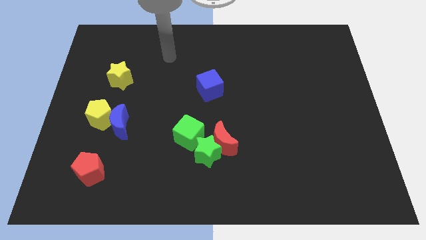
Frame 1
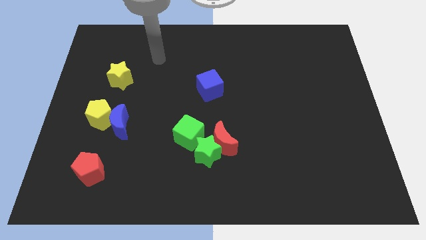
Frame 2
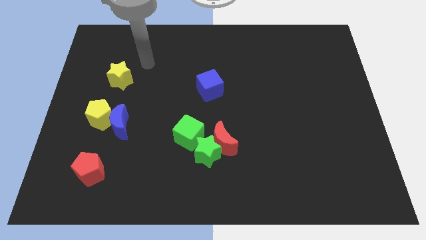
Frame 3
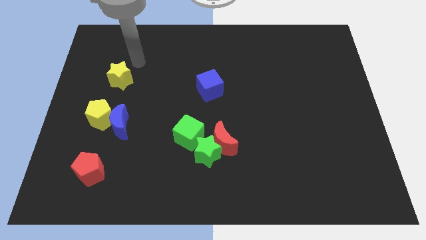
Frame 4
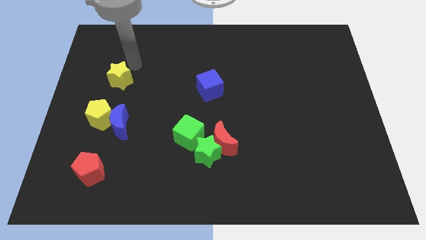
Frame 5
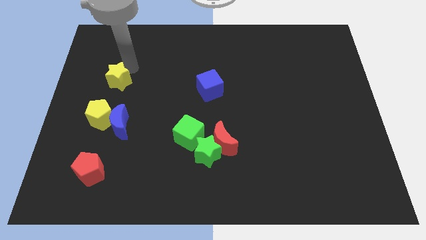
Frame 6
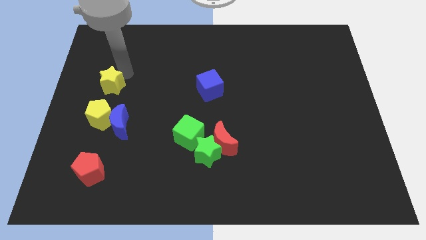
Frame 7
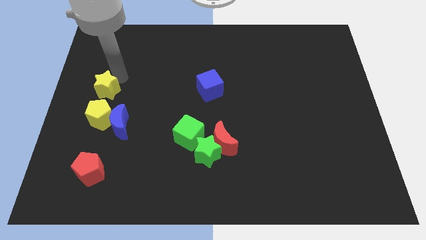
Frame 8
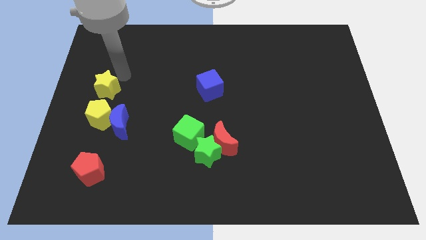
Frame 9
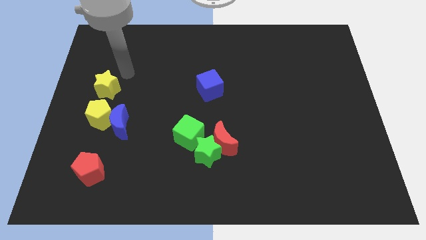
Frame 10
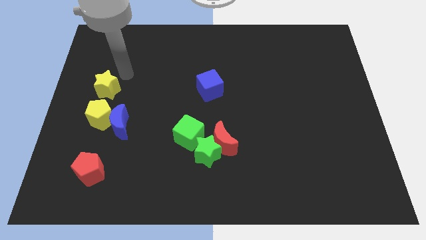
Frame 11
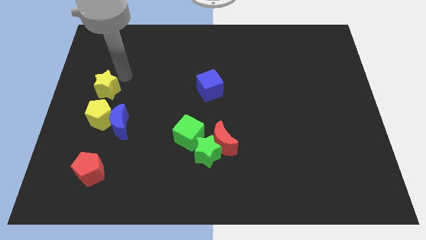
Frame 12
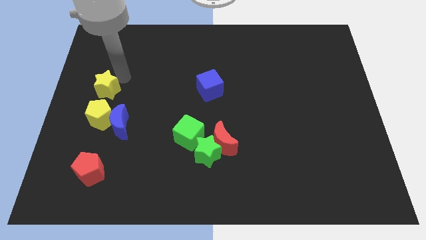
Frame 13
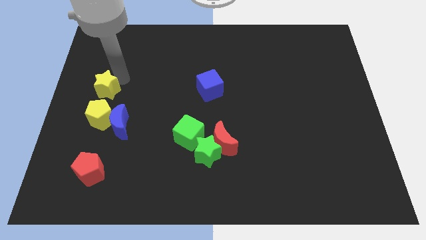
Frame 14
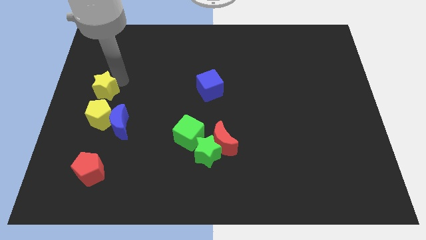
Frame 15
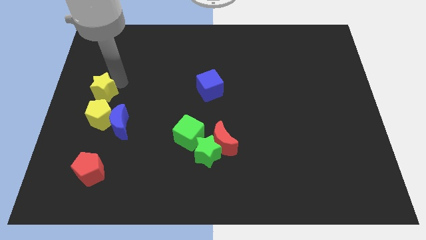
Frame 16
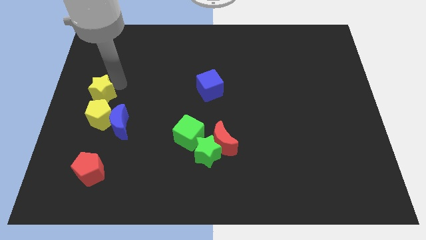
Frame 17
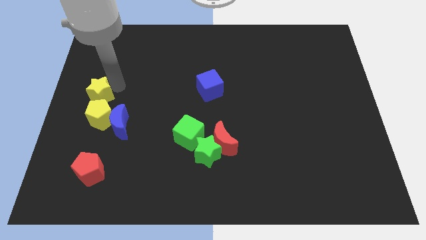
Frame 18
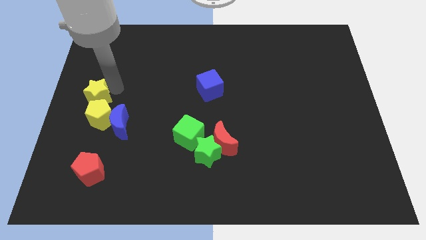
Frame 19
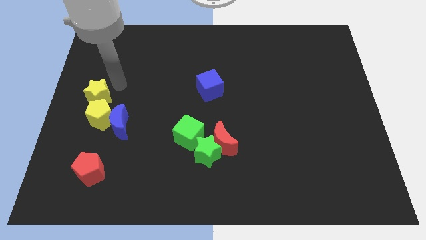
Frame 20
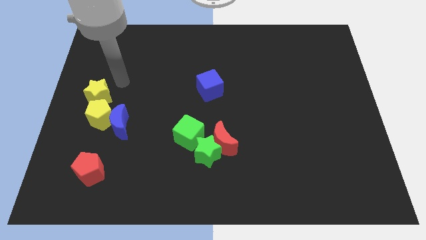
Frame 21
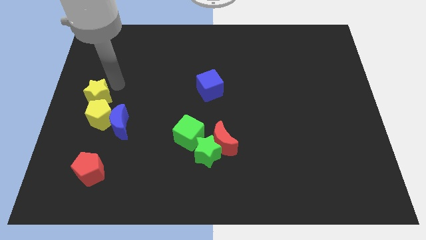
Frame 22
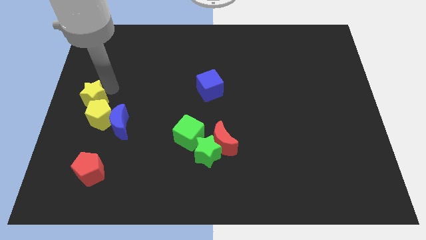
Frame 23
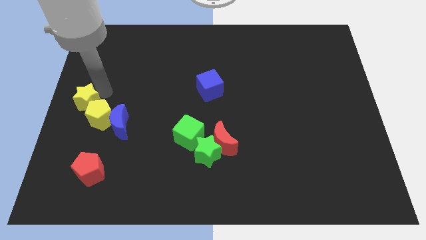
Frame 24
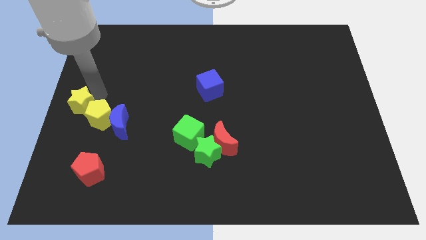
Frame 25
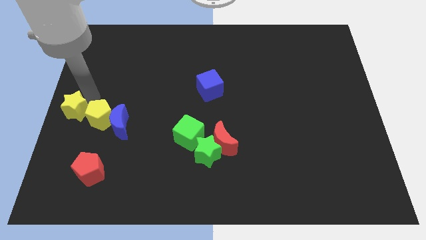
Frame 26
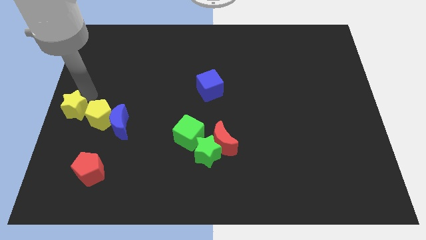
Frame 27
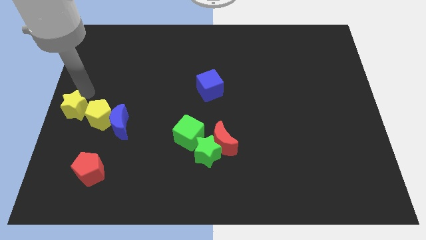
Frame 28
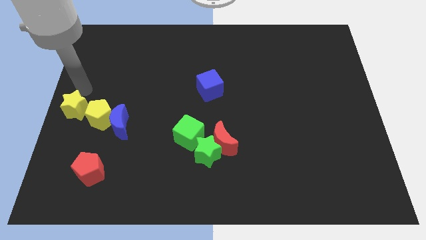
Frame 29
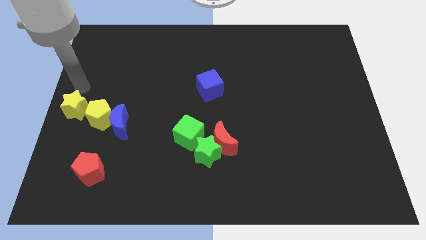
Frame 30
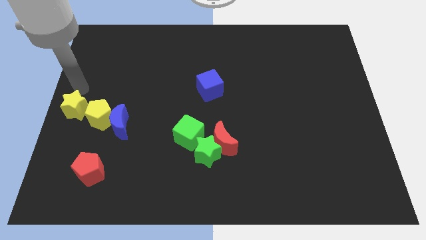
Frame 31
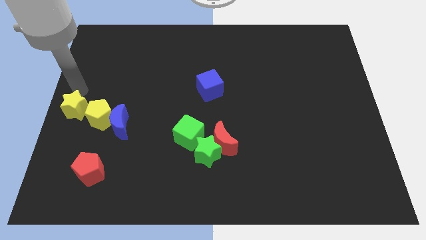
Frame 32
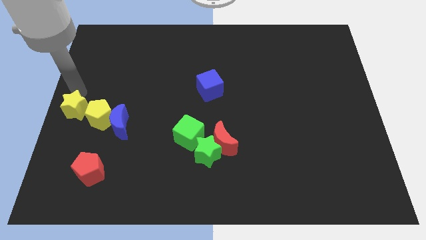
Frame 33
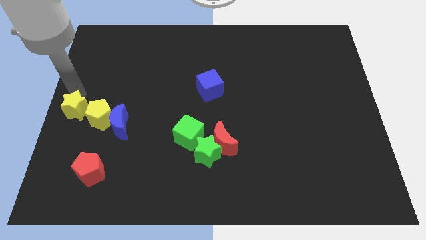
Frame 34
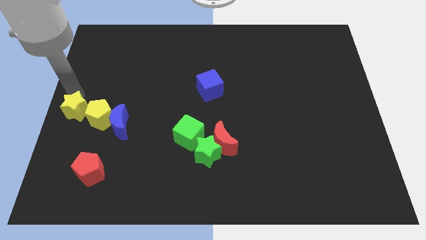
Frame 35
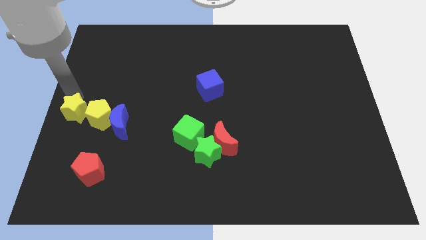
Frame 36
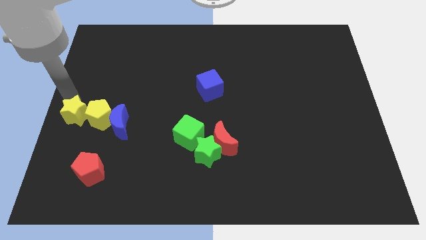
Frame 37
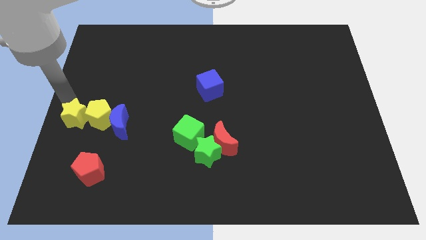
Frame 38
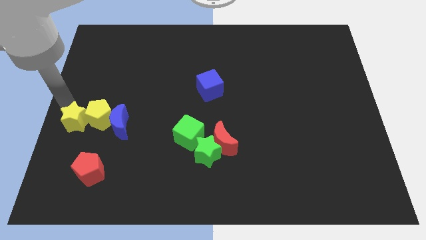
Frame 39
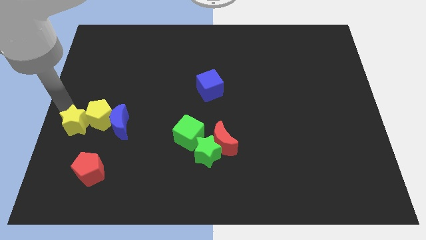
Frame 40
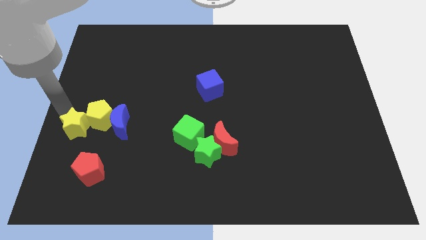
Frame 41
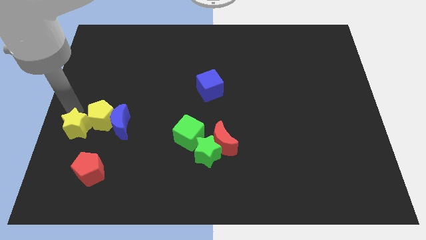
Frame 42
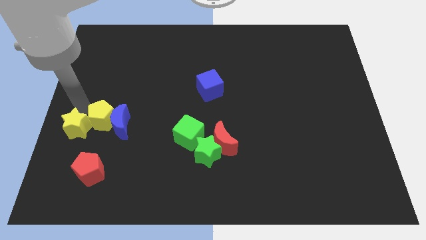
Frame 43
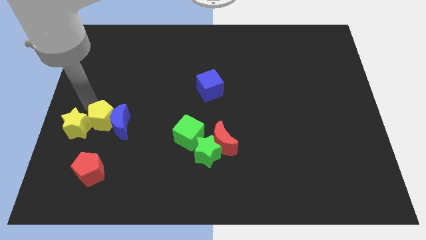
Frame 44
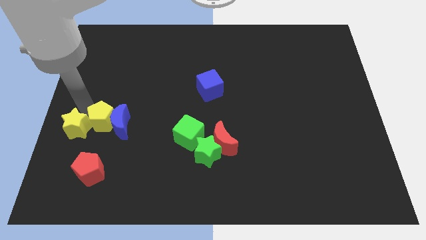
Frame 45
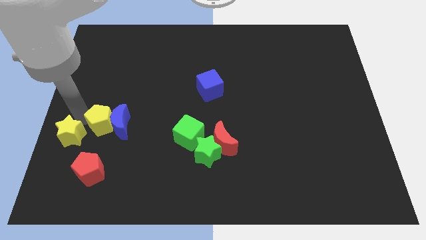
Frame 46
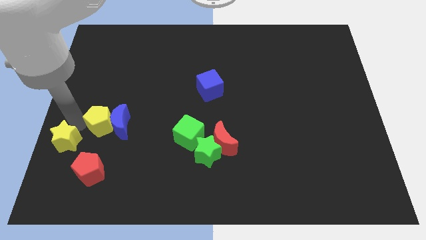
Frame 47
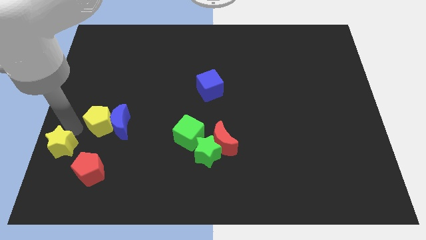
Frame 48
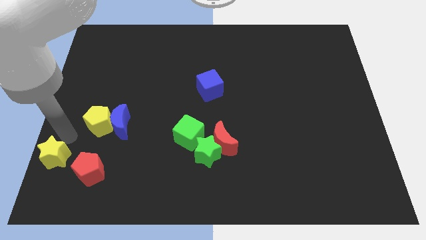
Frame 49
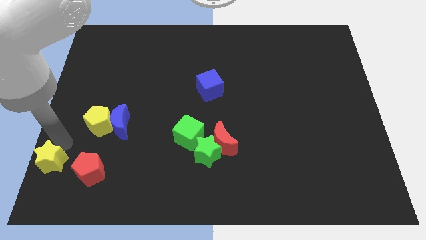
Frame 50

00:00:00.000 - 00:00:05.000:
move the yellow star to the bottom left of the board

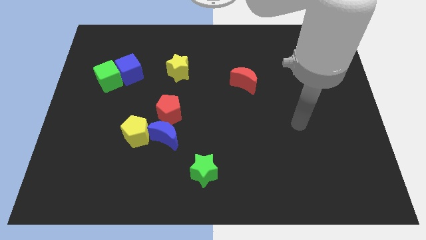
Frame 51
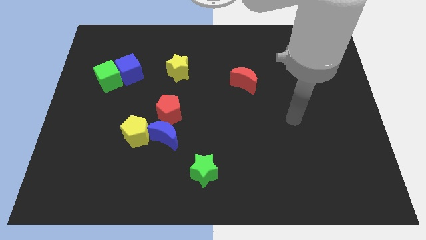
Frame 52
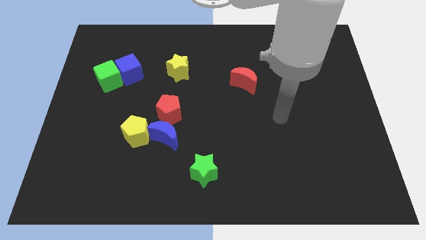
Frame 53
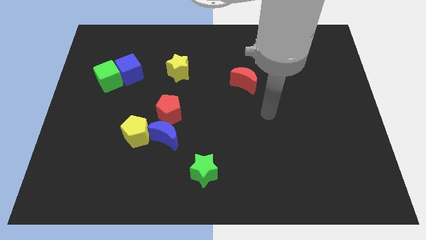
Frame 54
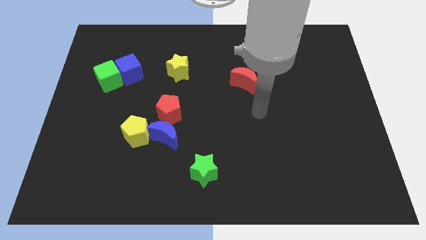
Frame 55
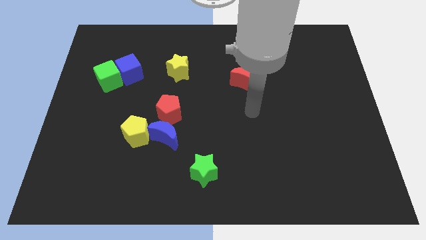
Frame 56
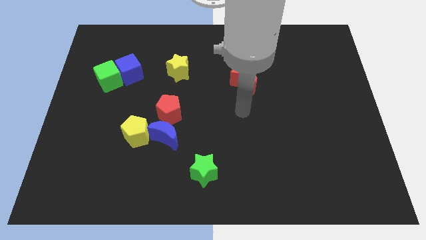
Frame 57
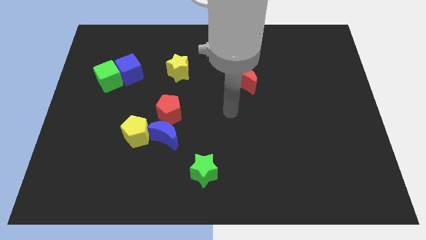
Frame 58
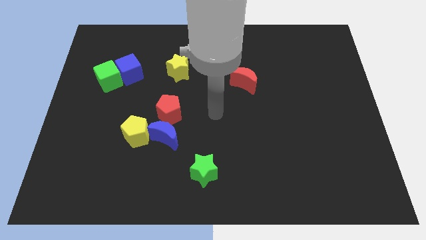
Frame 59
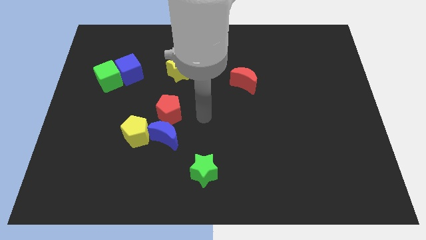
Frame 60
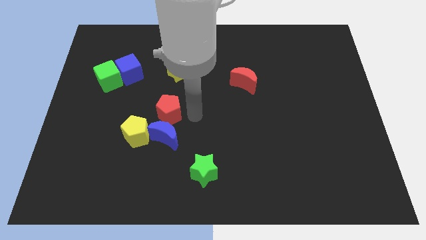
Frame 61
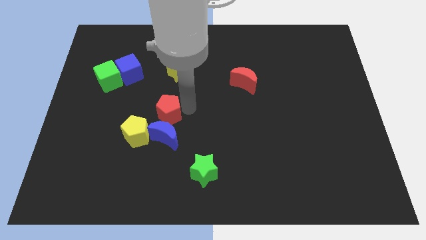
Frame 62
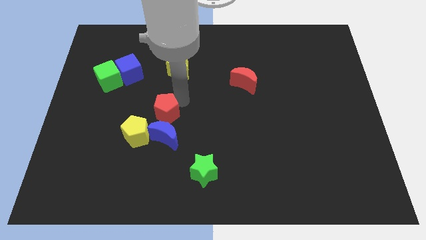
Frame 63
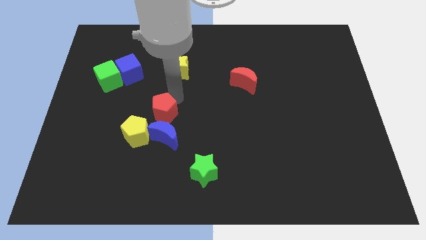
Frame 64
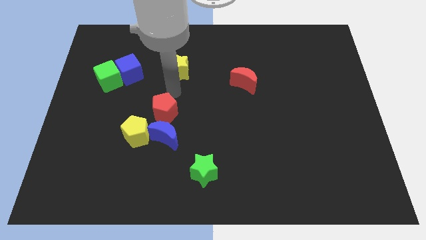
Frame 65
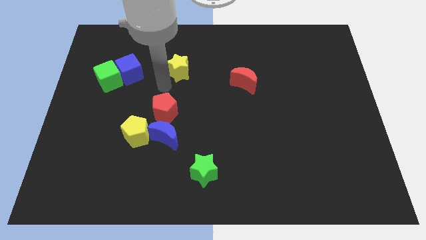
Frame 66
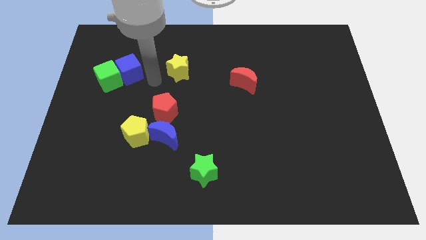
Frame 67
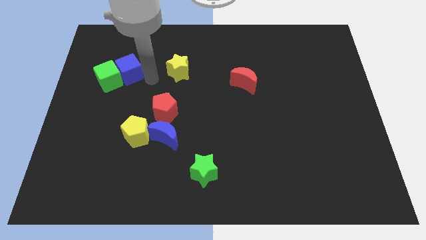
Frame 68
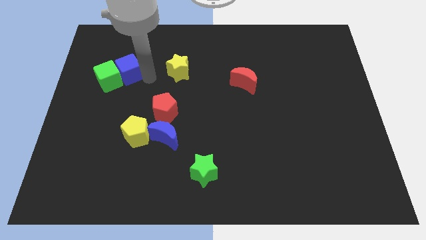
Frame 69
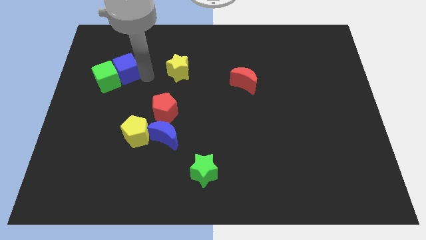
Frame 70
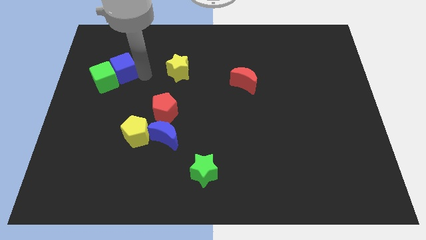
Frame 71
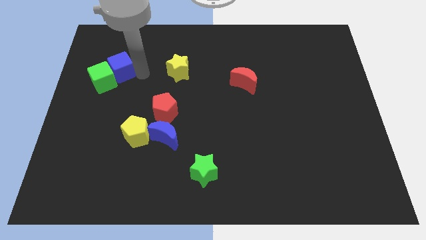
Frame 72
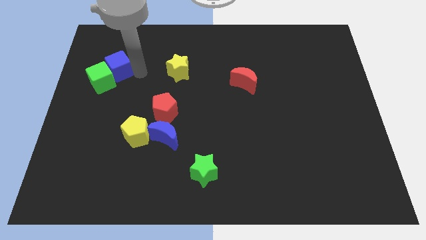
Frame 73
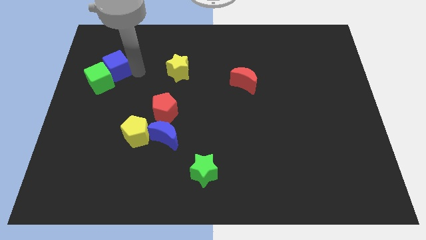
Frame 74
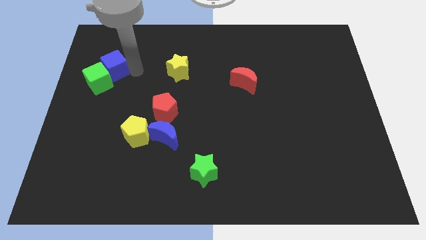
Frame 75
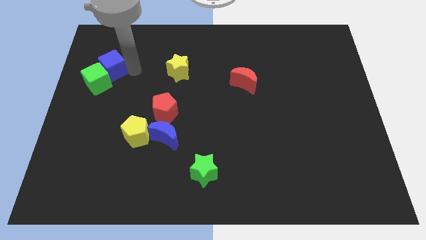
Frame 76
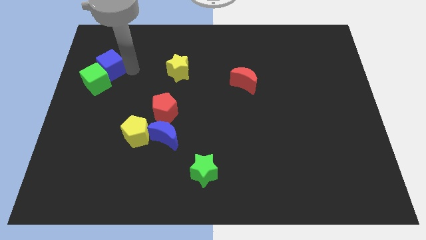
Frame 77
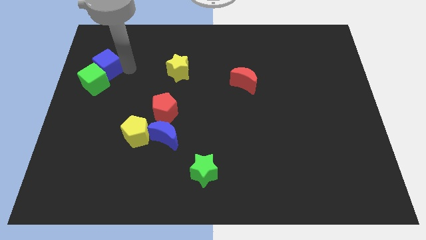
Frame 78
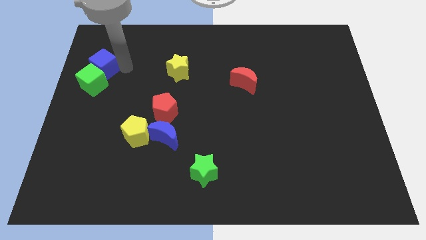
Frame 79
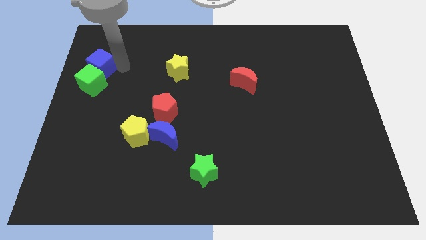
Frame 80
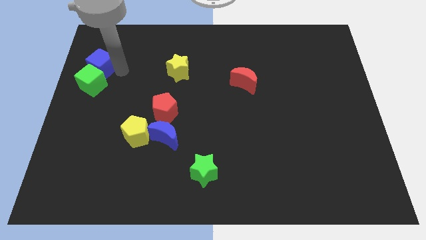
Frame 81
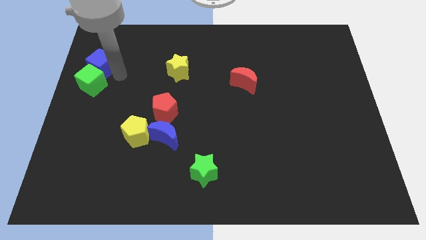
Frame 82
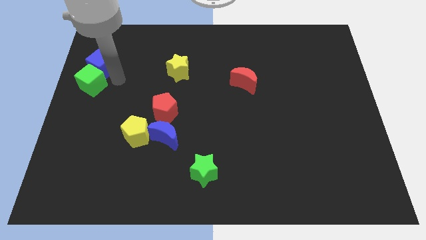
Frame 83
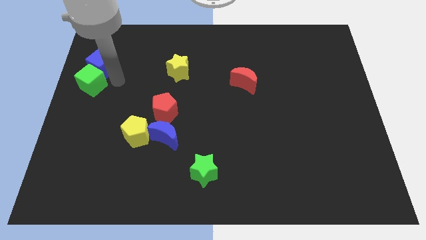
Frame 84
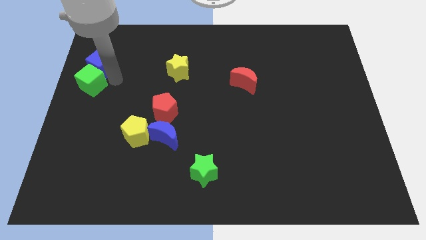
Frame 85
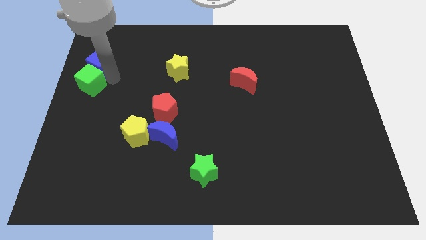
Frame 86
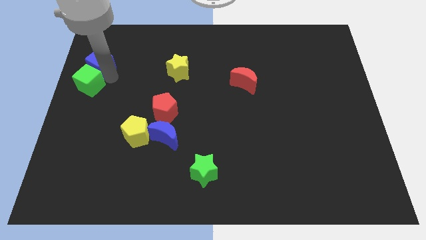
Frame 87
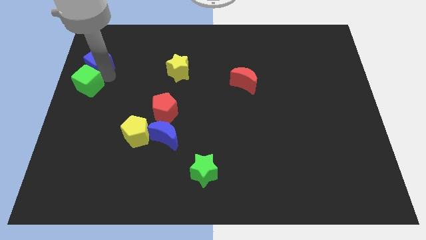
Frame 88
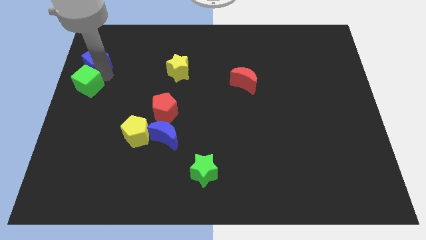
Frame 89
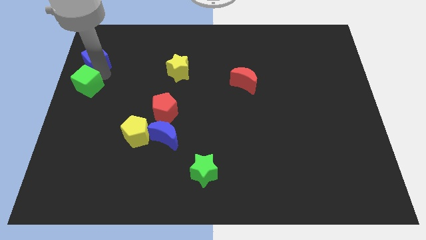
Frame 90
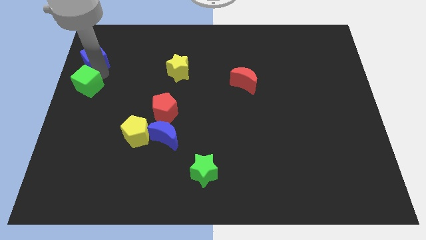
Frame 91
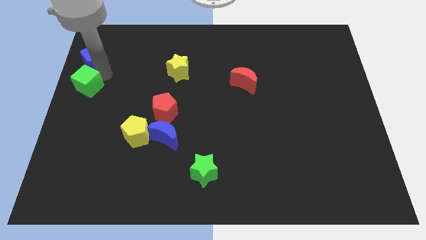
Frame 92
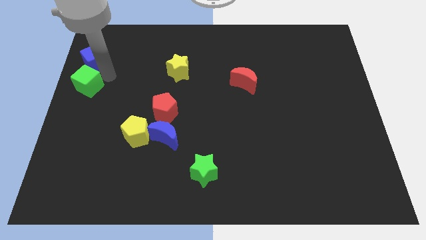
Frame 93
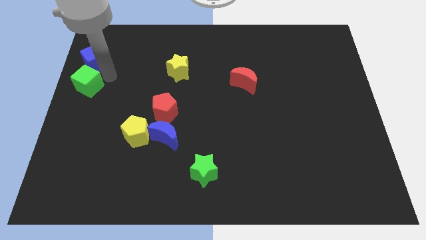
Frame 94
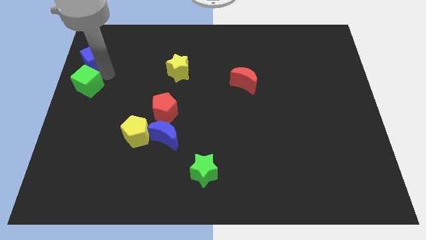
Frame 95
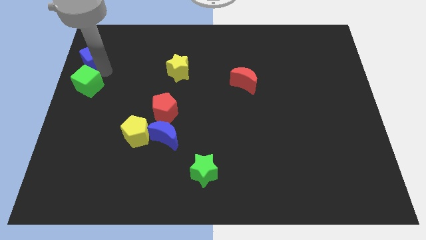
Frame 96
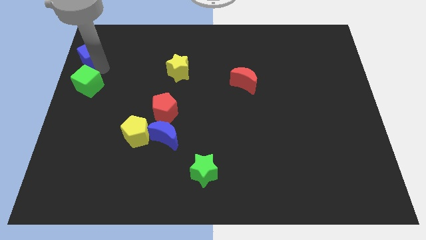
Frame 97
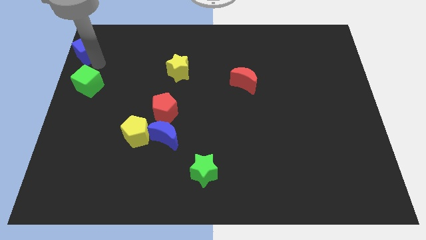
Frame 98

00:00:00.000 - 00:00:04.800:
push the blue cube to the top left corner
